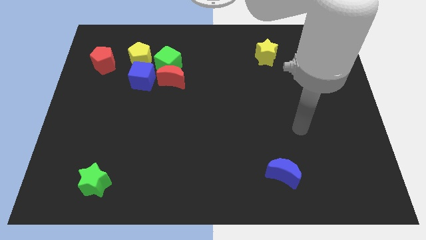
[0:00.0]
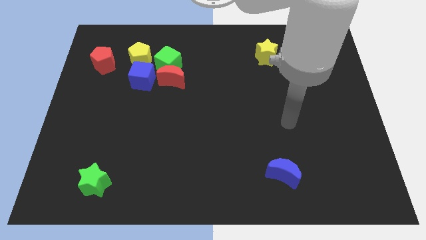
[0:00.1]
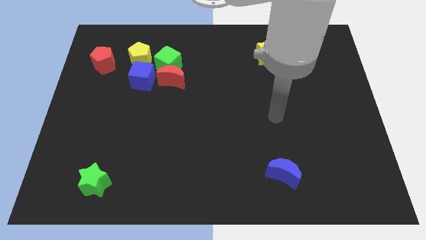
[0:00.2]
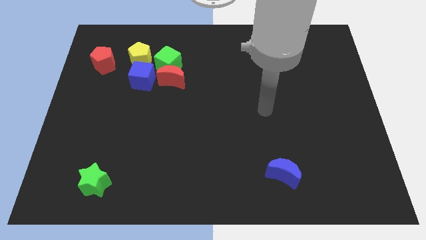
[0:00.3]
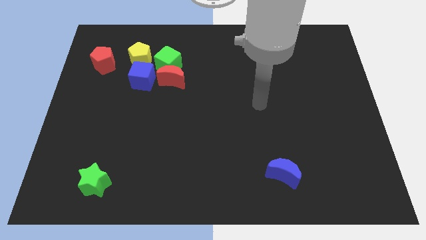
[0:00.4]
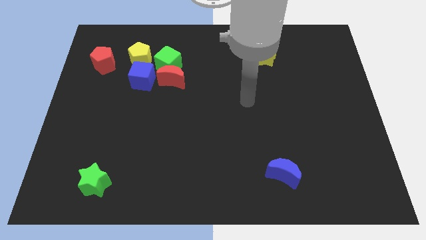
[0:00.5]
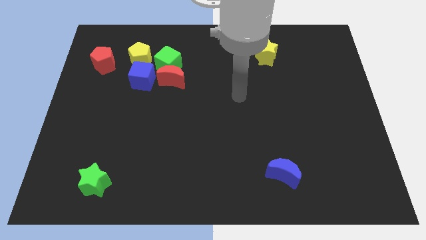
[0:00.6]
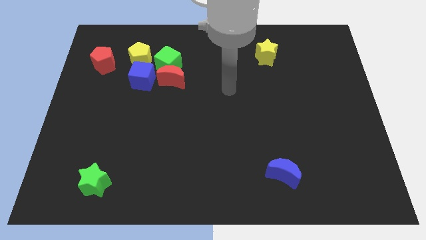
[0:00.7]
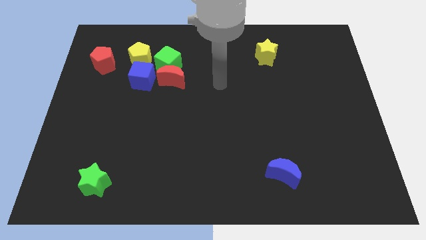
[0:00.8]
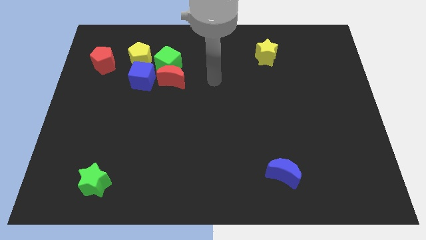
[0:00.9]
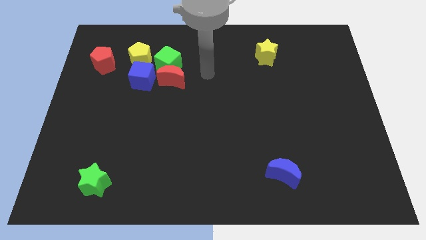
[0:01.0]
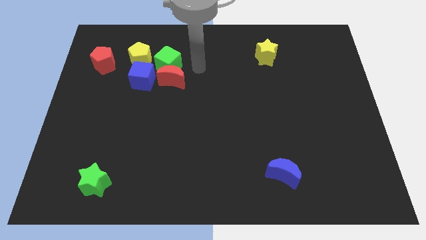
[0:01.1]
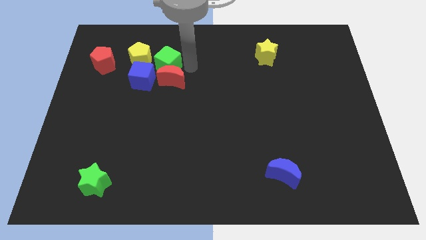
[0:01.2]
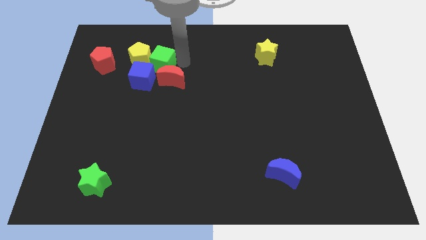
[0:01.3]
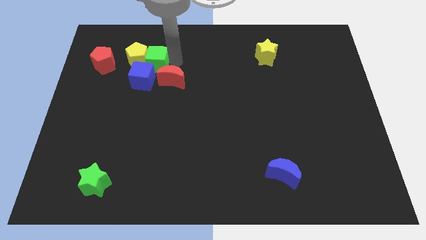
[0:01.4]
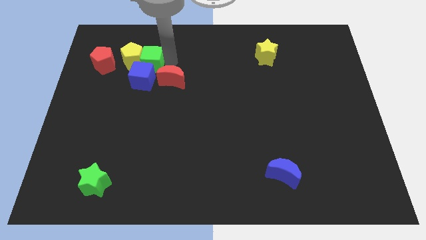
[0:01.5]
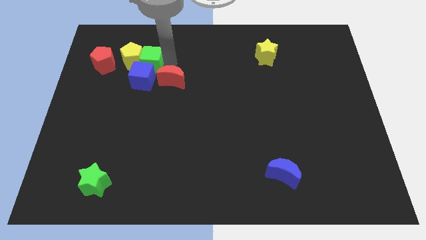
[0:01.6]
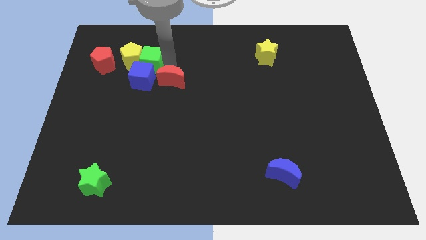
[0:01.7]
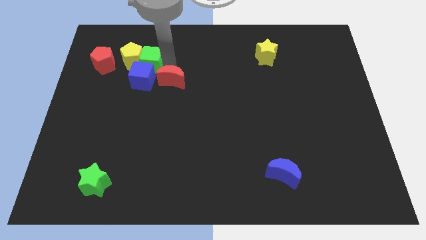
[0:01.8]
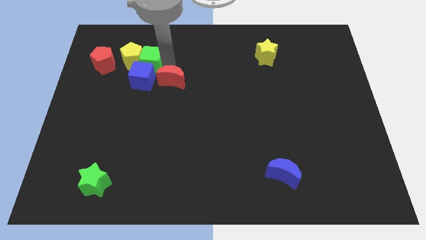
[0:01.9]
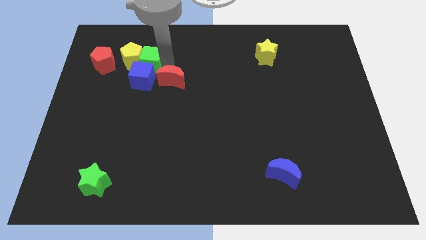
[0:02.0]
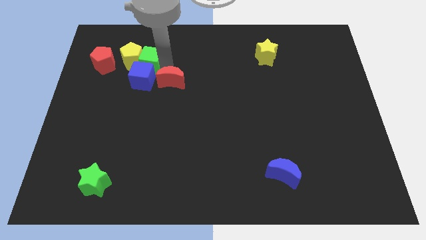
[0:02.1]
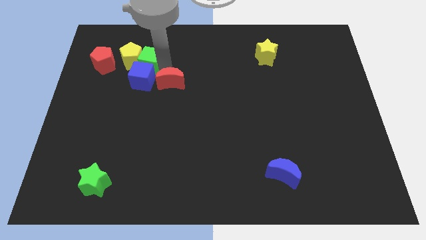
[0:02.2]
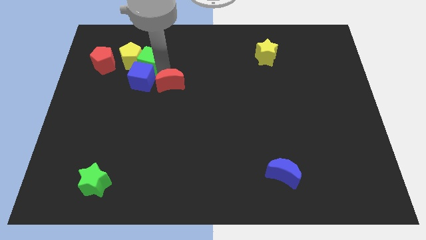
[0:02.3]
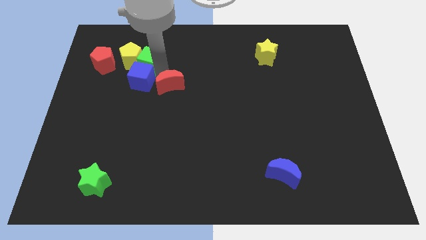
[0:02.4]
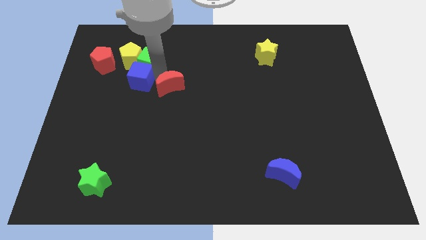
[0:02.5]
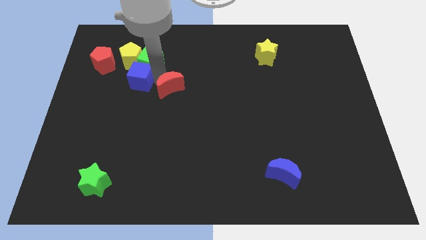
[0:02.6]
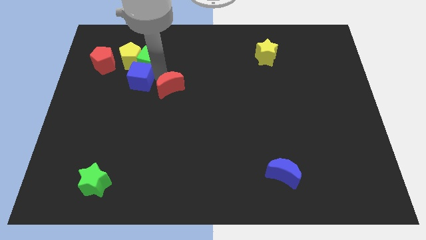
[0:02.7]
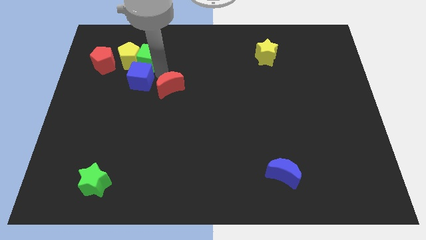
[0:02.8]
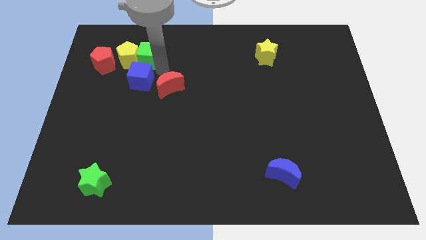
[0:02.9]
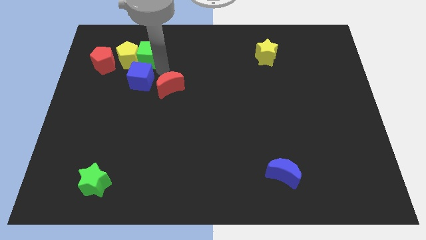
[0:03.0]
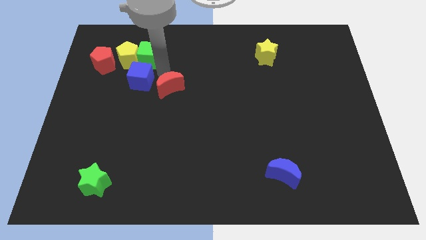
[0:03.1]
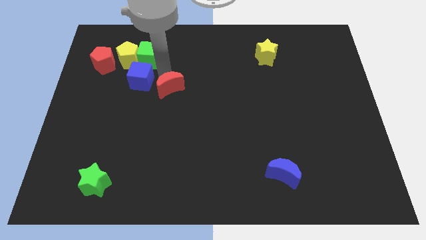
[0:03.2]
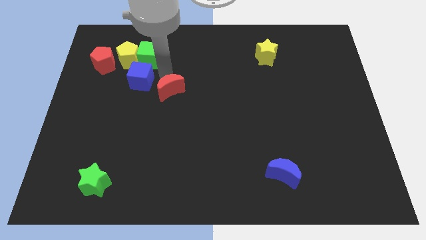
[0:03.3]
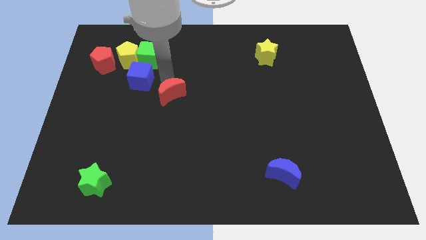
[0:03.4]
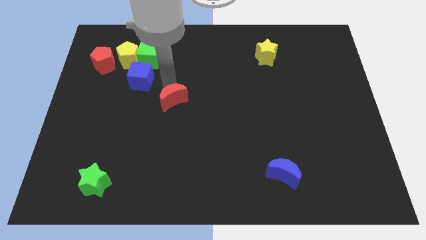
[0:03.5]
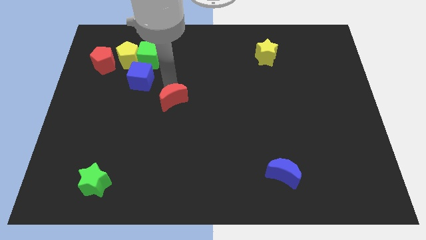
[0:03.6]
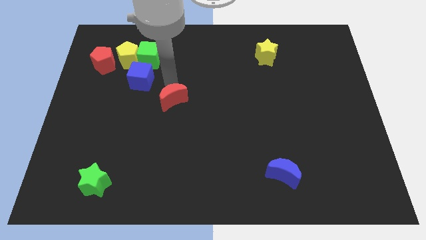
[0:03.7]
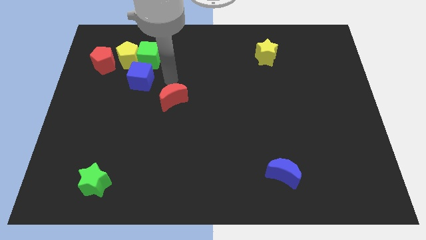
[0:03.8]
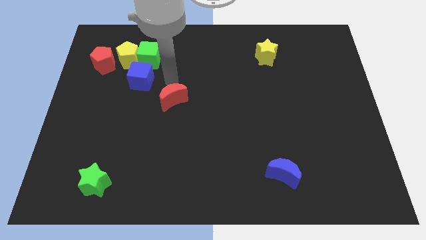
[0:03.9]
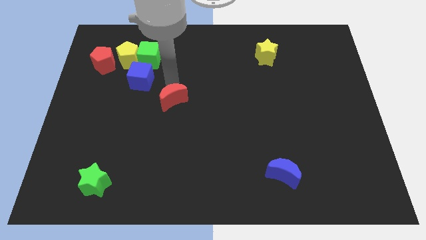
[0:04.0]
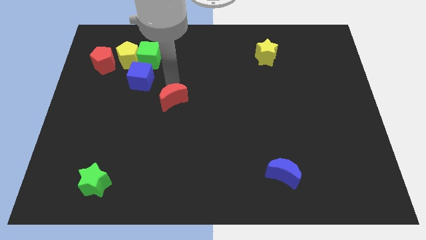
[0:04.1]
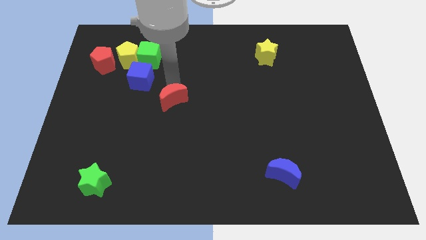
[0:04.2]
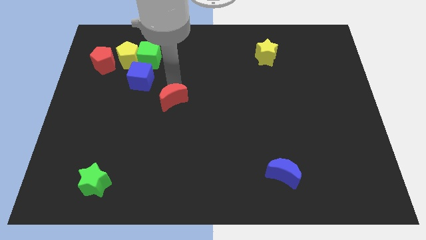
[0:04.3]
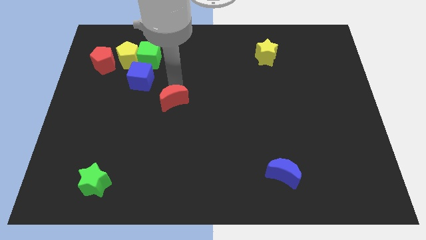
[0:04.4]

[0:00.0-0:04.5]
slide the red moon somewhat downwards

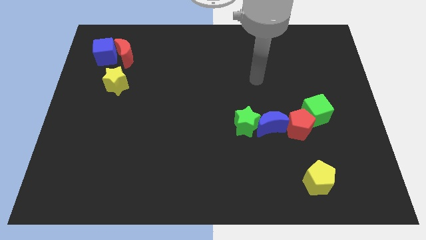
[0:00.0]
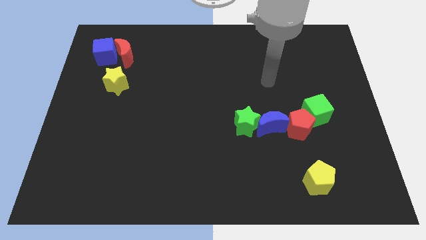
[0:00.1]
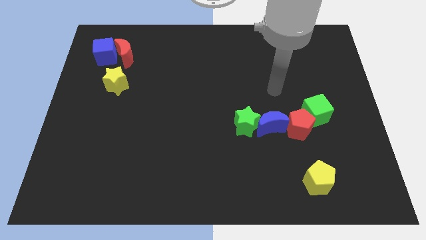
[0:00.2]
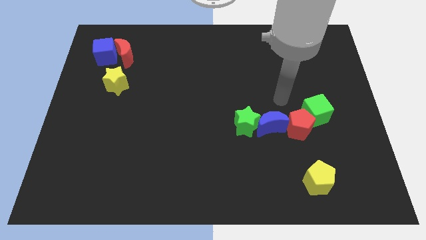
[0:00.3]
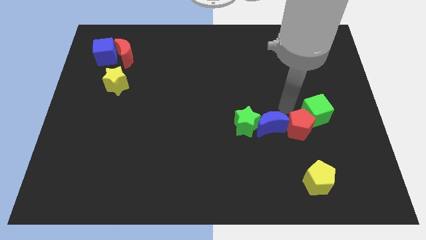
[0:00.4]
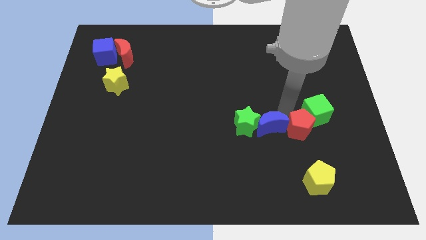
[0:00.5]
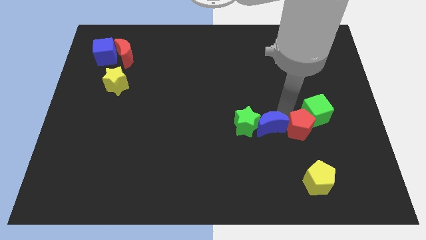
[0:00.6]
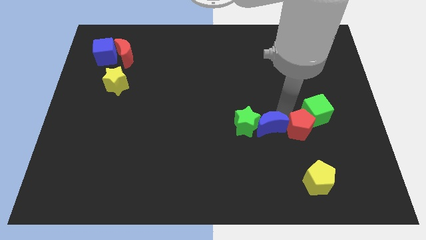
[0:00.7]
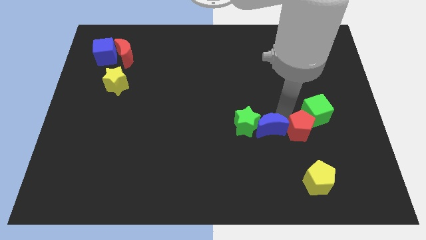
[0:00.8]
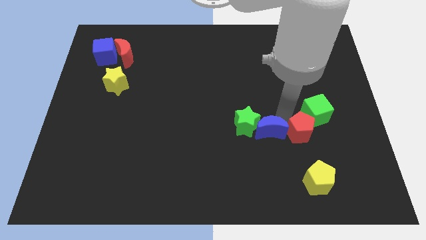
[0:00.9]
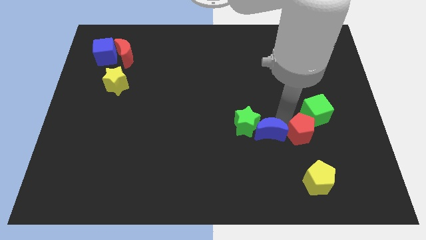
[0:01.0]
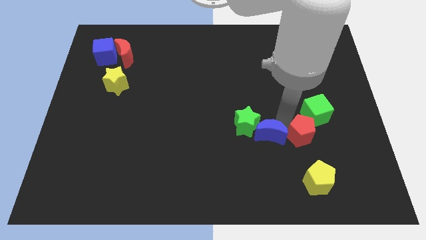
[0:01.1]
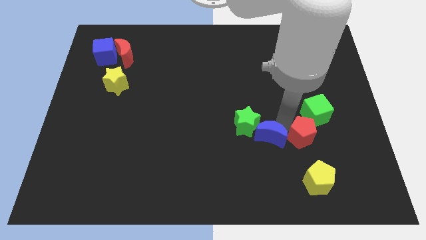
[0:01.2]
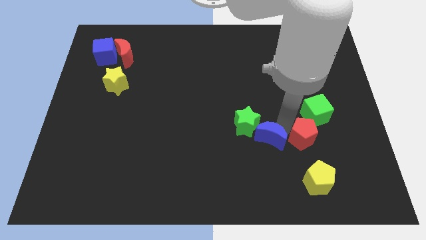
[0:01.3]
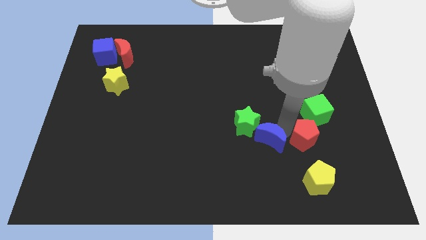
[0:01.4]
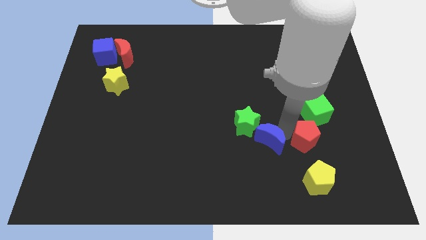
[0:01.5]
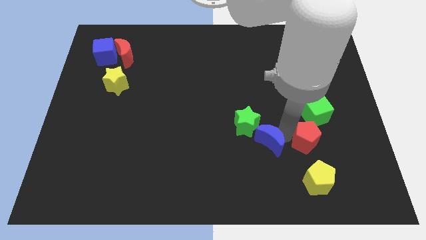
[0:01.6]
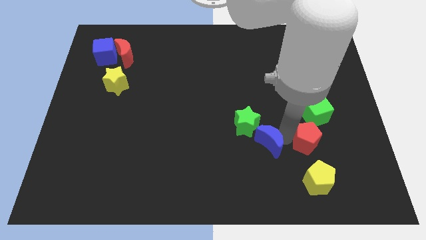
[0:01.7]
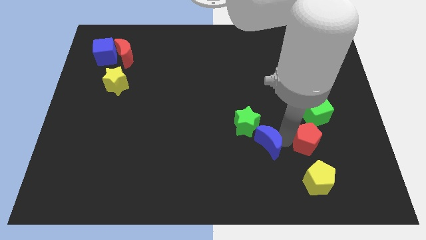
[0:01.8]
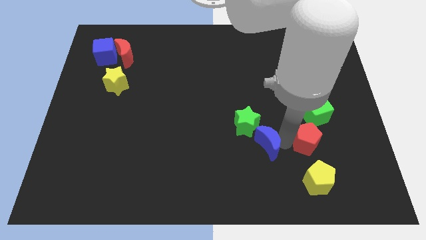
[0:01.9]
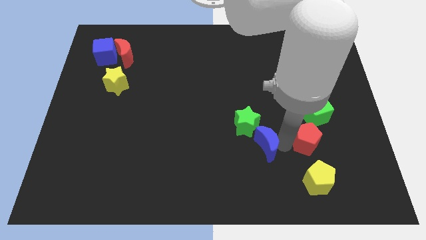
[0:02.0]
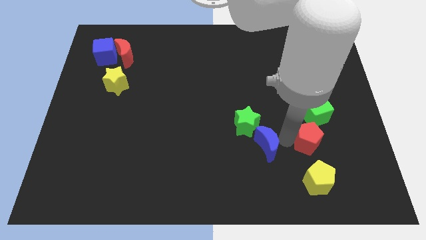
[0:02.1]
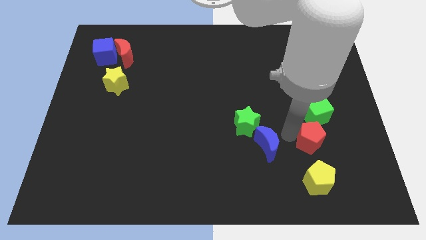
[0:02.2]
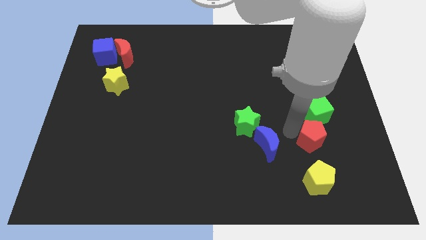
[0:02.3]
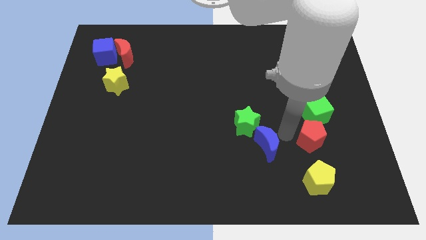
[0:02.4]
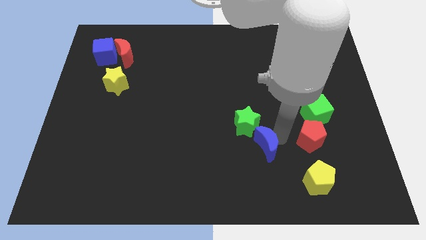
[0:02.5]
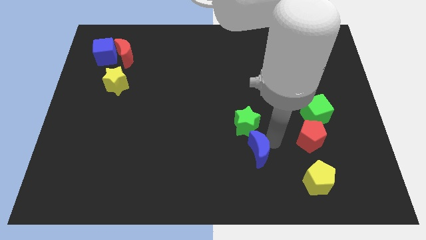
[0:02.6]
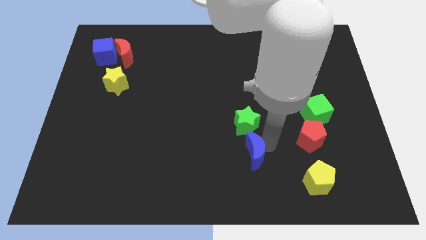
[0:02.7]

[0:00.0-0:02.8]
slightly push the blue moon downwards and to the left diagonally

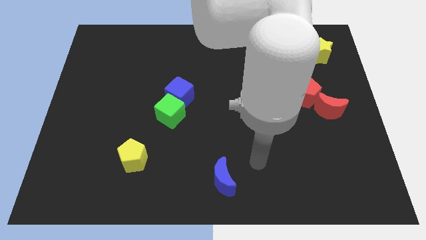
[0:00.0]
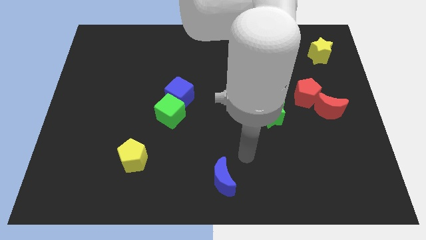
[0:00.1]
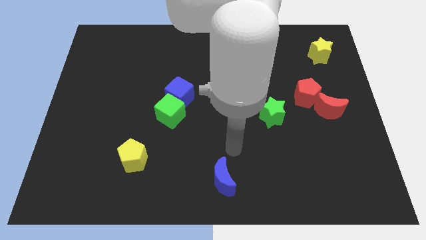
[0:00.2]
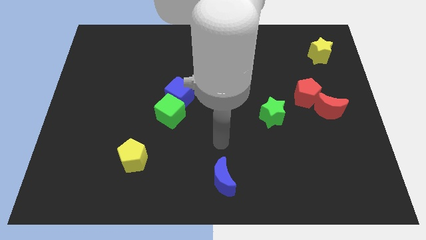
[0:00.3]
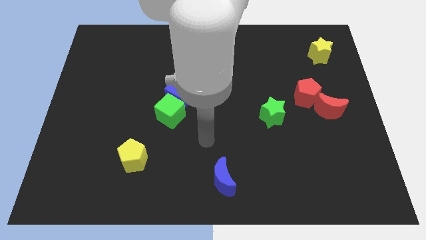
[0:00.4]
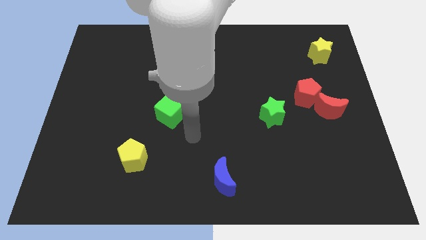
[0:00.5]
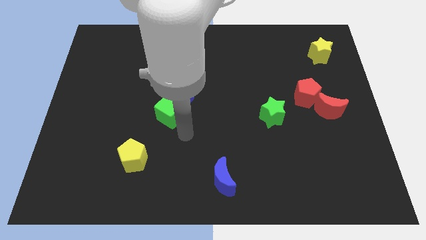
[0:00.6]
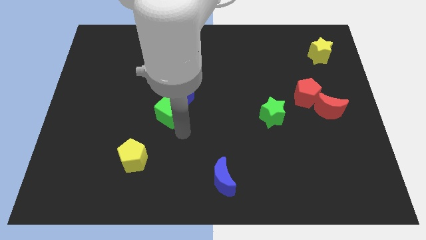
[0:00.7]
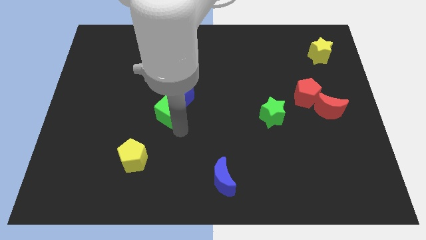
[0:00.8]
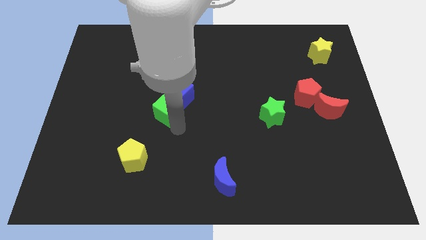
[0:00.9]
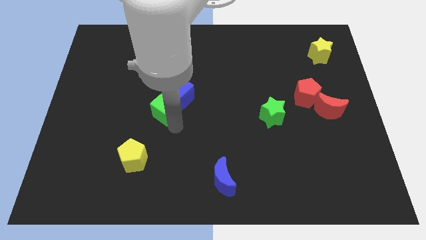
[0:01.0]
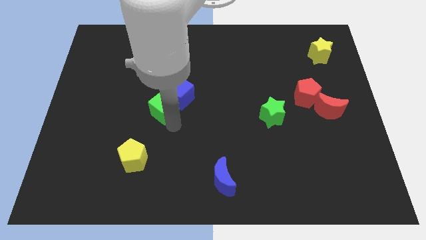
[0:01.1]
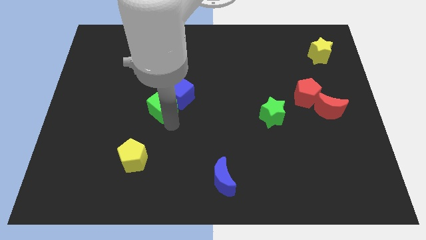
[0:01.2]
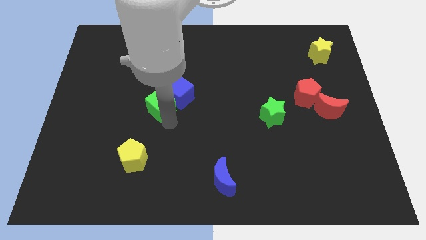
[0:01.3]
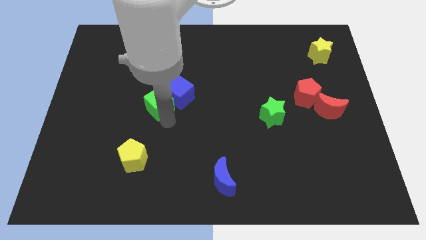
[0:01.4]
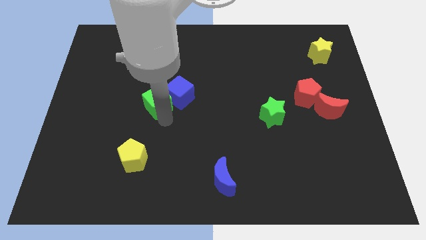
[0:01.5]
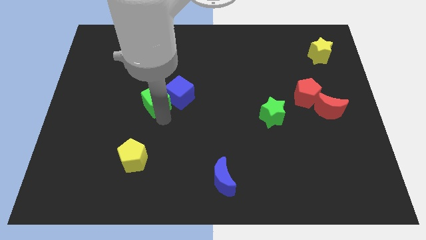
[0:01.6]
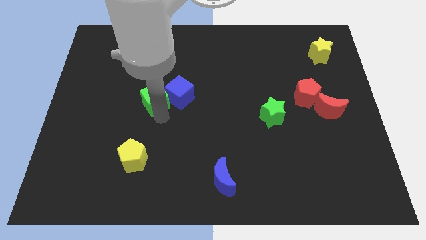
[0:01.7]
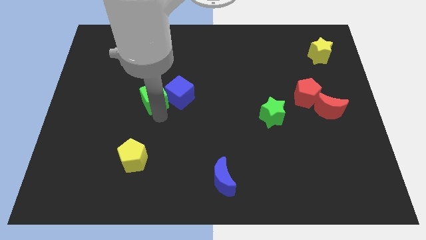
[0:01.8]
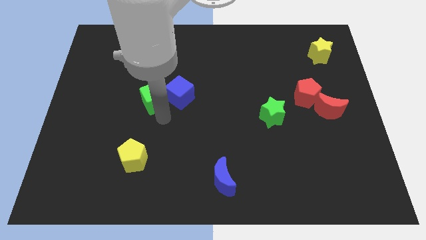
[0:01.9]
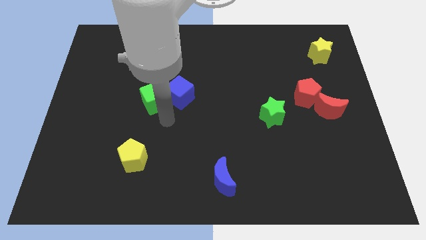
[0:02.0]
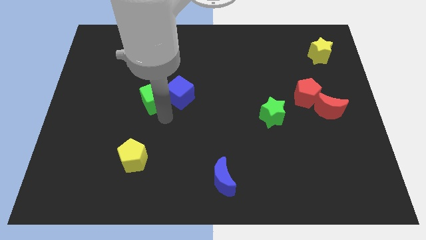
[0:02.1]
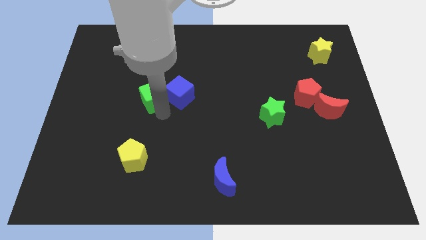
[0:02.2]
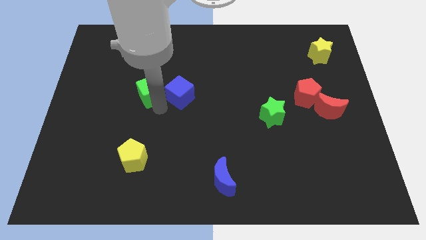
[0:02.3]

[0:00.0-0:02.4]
slightly slide the green cube upwards and left
